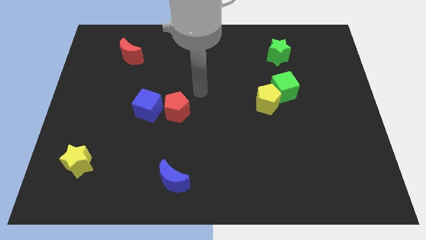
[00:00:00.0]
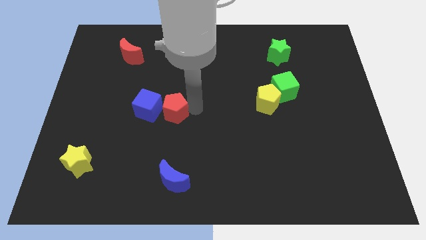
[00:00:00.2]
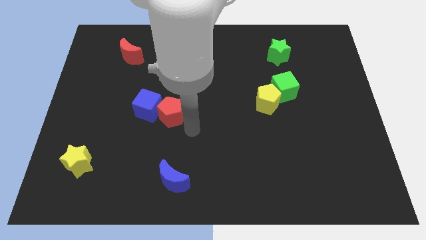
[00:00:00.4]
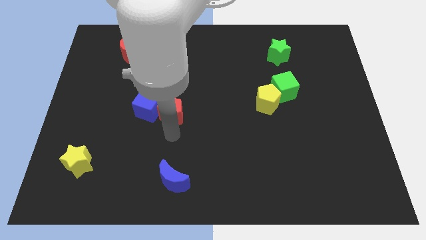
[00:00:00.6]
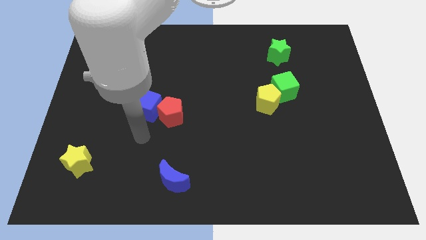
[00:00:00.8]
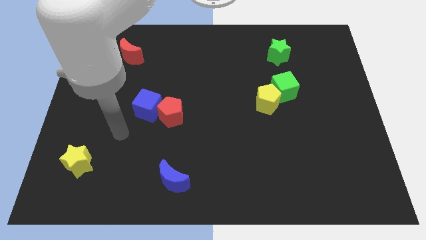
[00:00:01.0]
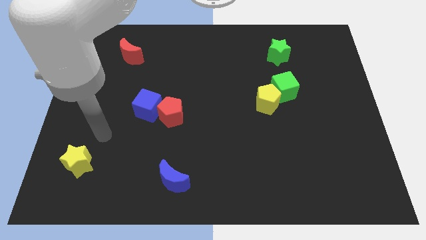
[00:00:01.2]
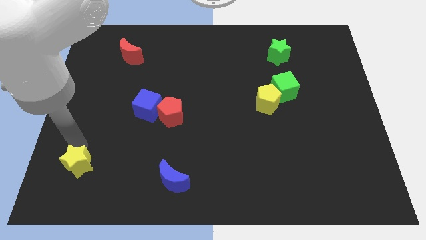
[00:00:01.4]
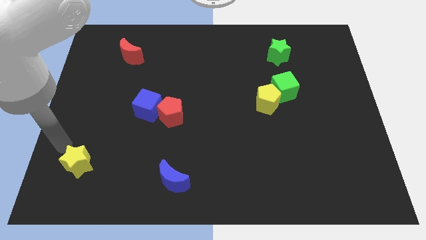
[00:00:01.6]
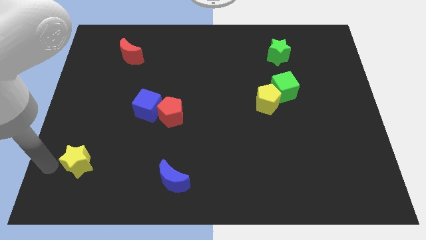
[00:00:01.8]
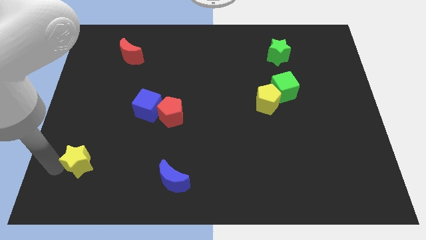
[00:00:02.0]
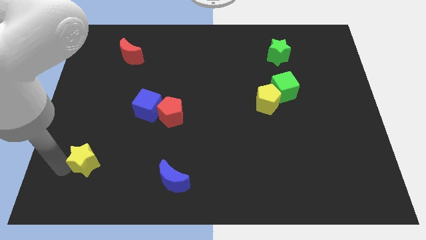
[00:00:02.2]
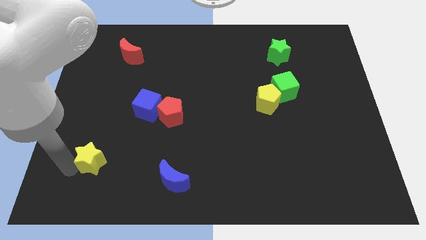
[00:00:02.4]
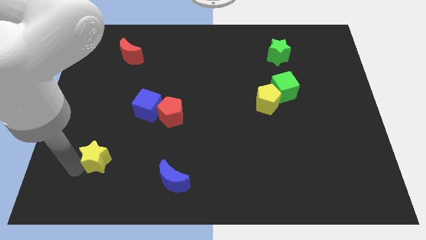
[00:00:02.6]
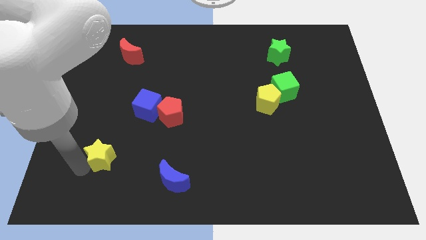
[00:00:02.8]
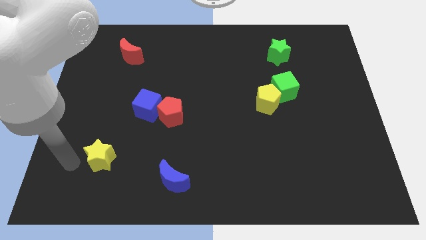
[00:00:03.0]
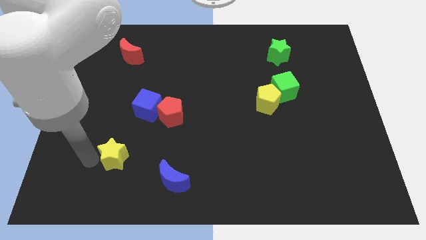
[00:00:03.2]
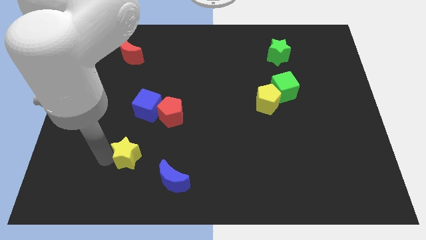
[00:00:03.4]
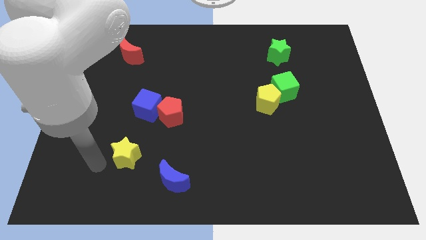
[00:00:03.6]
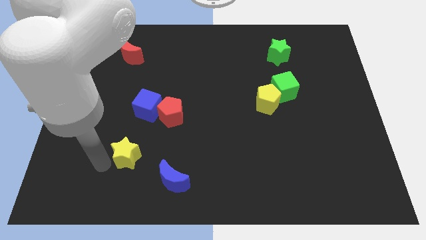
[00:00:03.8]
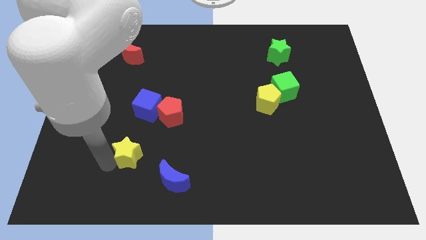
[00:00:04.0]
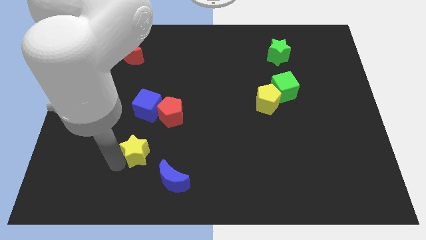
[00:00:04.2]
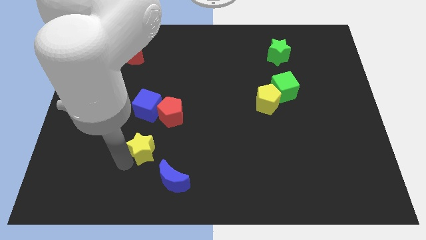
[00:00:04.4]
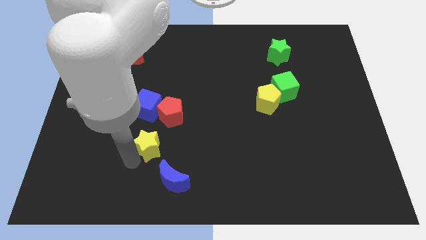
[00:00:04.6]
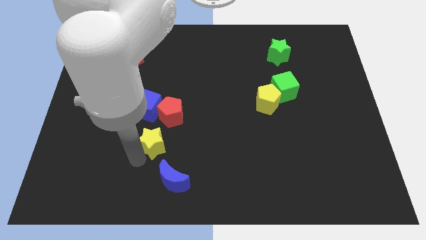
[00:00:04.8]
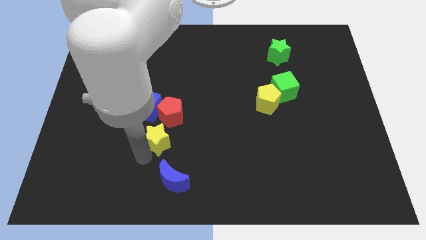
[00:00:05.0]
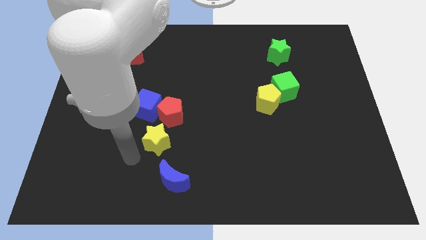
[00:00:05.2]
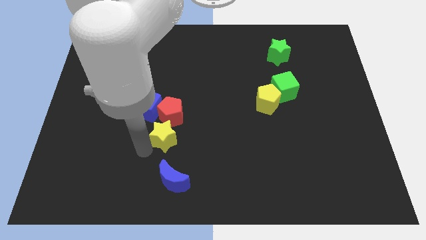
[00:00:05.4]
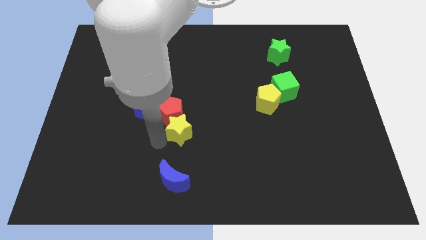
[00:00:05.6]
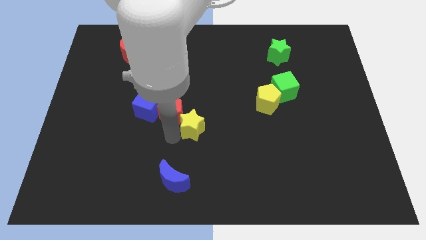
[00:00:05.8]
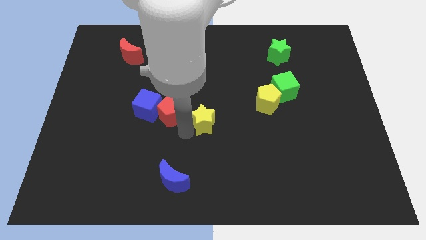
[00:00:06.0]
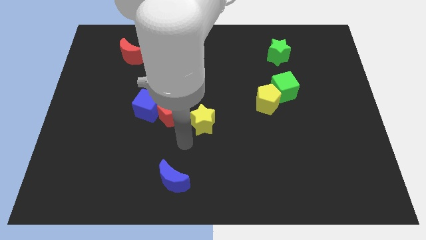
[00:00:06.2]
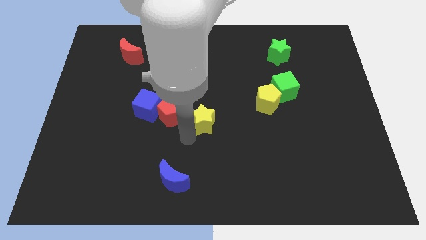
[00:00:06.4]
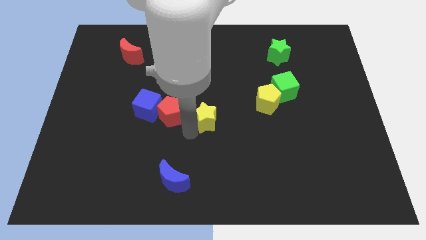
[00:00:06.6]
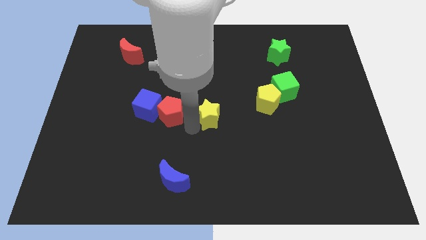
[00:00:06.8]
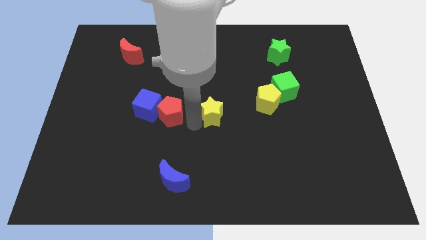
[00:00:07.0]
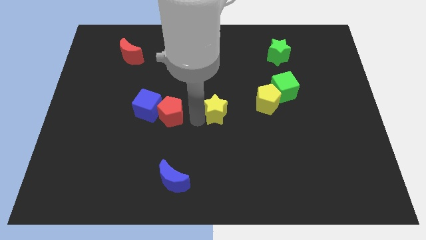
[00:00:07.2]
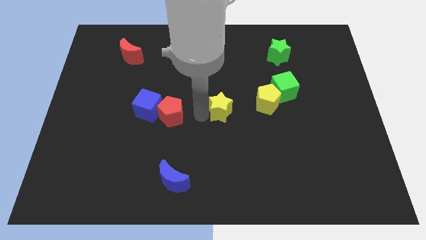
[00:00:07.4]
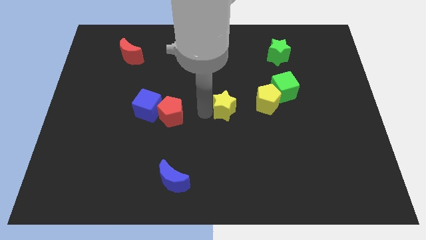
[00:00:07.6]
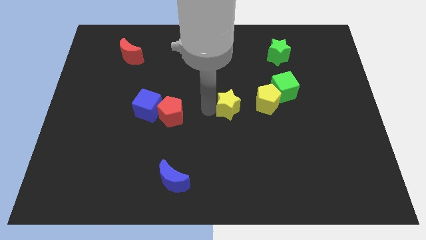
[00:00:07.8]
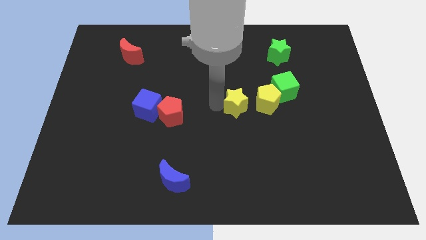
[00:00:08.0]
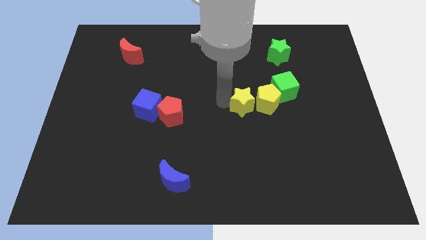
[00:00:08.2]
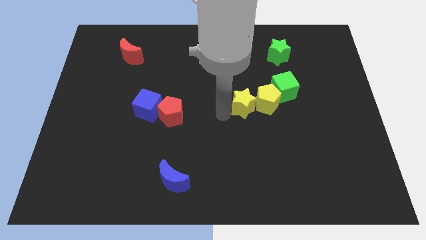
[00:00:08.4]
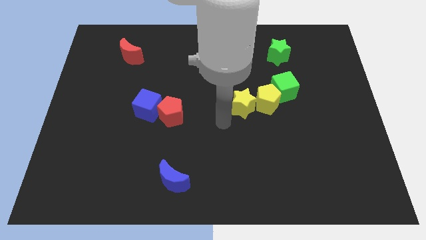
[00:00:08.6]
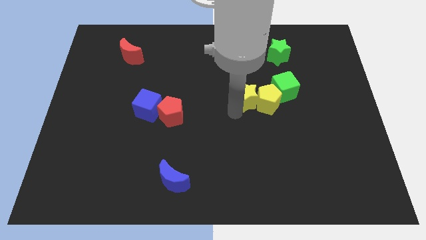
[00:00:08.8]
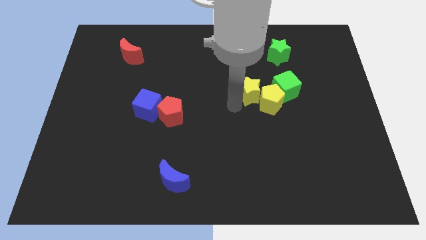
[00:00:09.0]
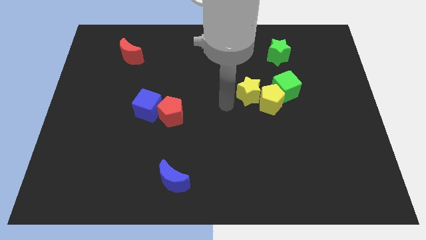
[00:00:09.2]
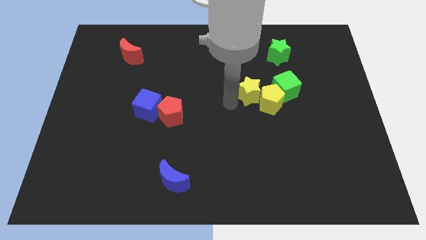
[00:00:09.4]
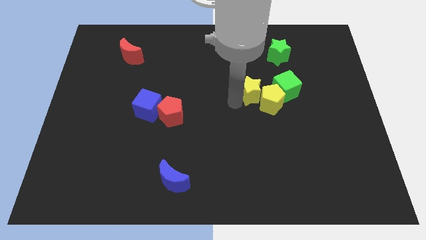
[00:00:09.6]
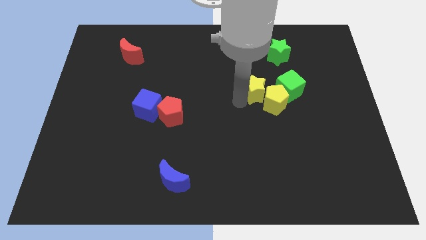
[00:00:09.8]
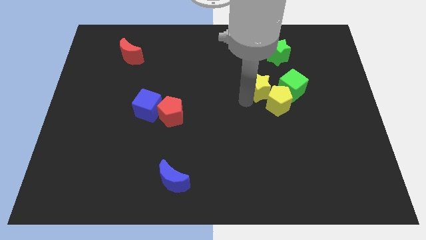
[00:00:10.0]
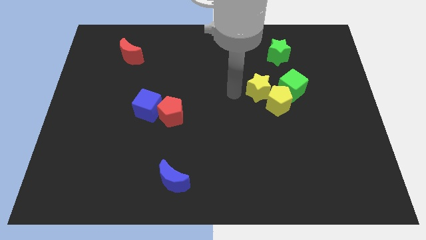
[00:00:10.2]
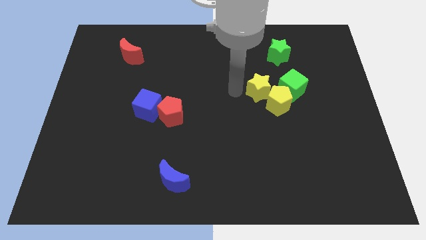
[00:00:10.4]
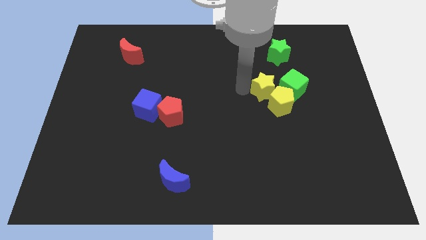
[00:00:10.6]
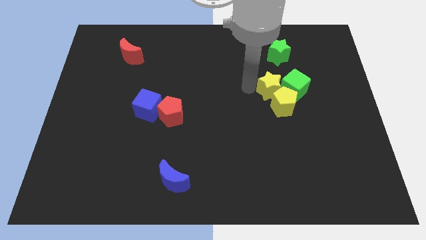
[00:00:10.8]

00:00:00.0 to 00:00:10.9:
put the yellow star to the green cube

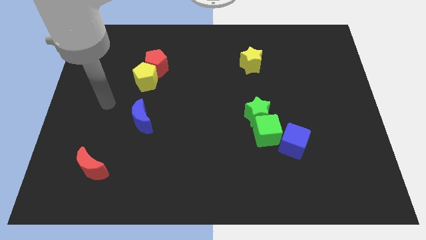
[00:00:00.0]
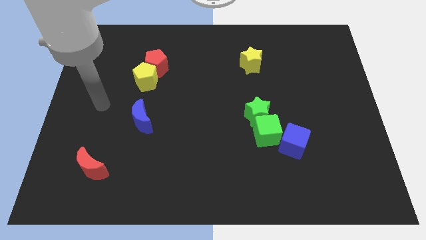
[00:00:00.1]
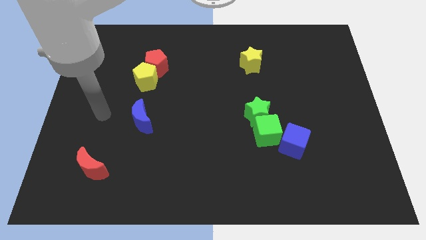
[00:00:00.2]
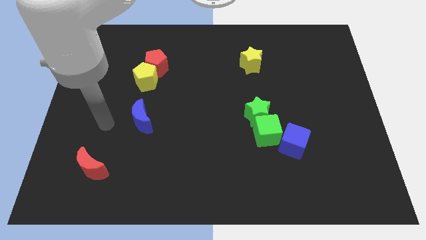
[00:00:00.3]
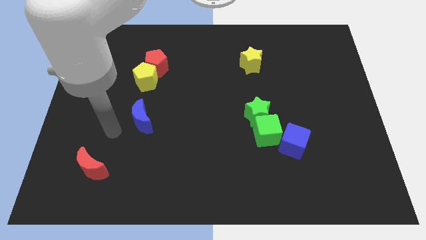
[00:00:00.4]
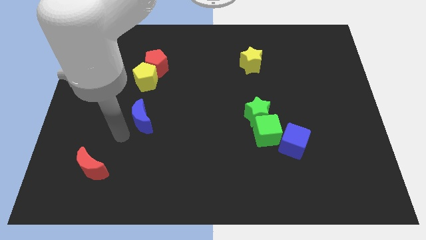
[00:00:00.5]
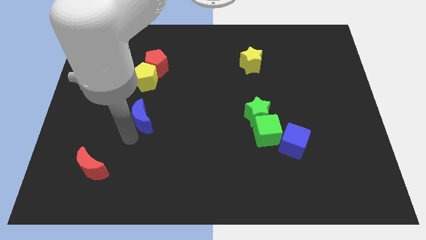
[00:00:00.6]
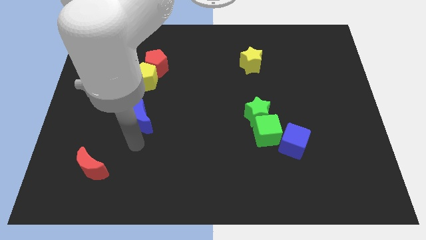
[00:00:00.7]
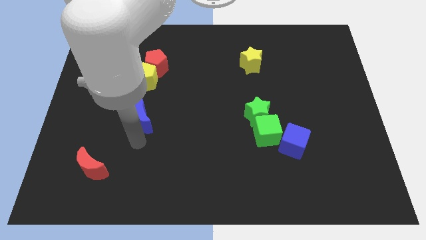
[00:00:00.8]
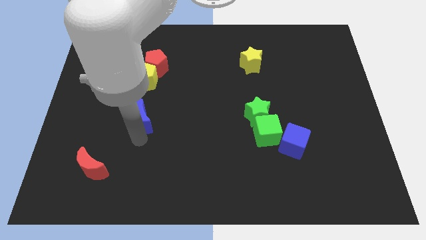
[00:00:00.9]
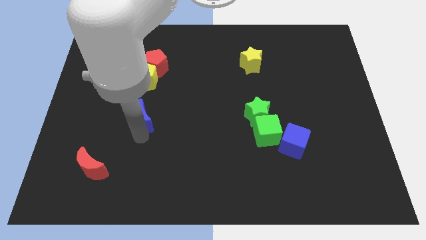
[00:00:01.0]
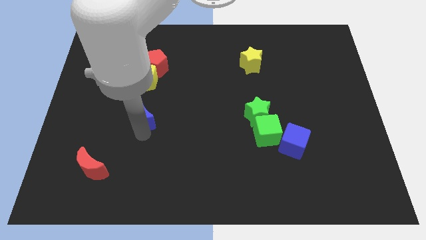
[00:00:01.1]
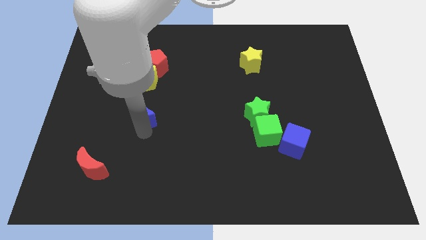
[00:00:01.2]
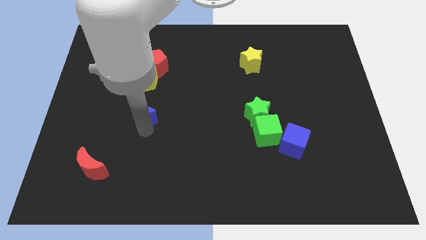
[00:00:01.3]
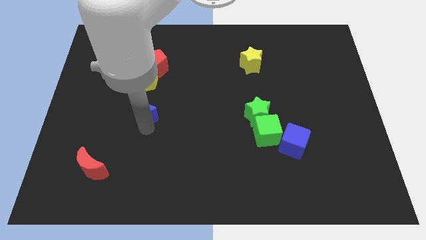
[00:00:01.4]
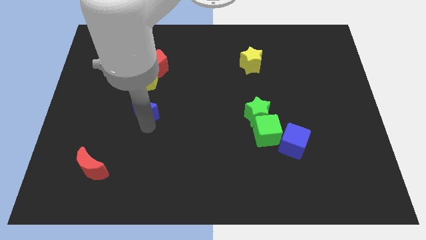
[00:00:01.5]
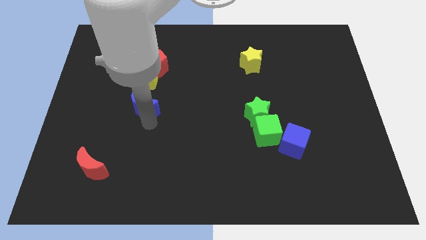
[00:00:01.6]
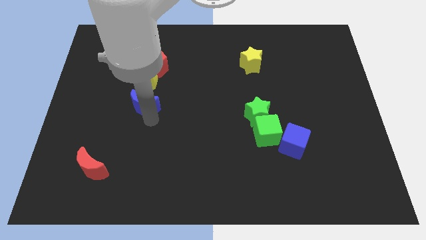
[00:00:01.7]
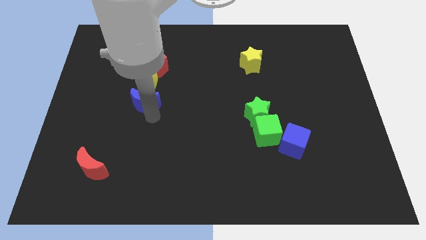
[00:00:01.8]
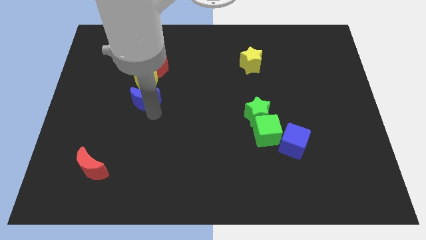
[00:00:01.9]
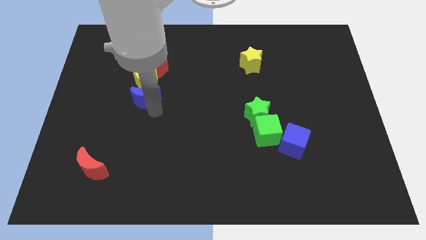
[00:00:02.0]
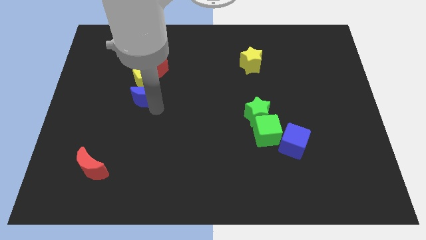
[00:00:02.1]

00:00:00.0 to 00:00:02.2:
put the blue moon next to the yellow pentagon

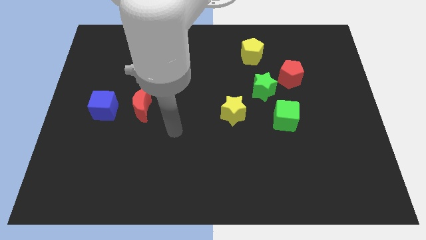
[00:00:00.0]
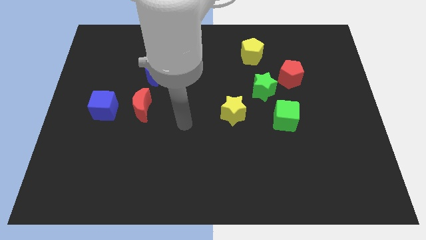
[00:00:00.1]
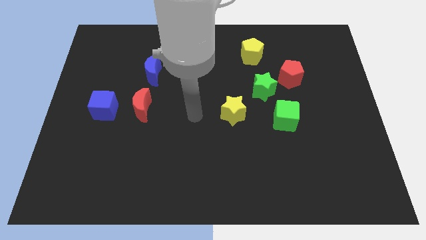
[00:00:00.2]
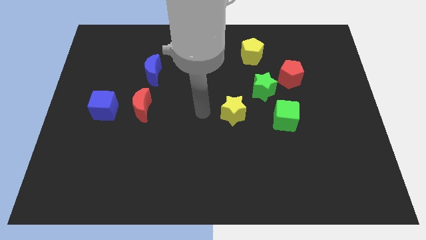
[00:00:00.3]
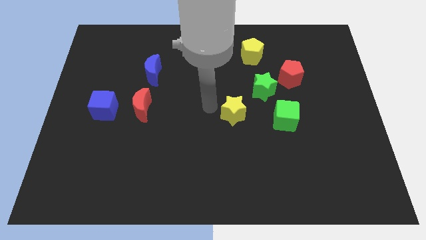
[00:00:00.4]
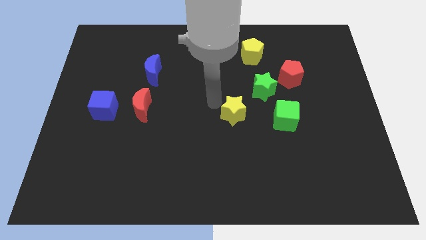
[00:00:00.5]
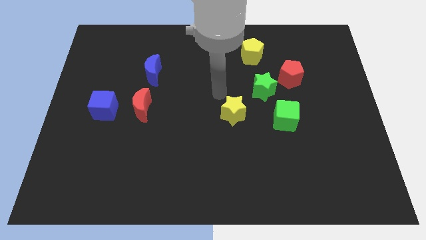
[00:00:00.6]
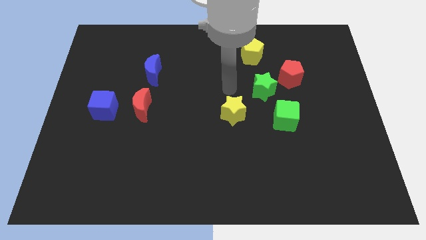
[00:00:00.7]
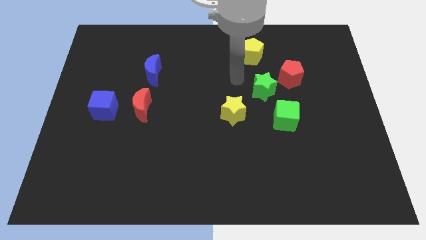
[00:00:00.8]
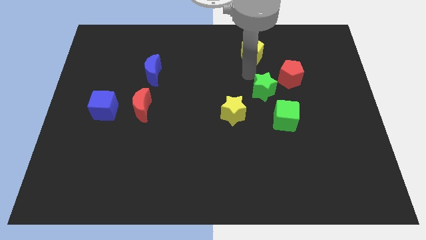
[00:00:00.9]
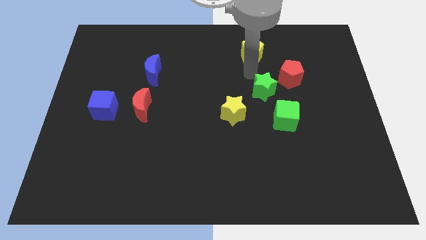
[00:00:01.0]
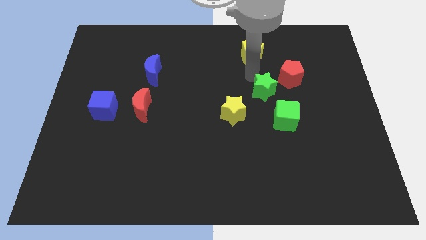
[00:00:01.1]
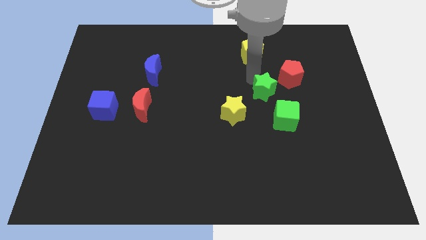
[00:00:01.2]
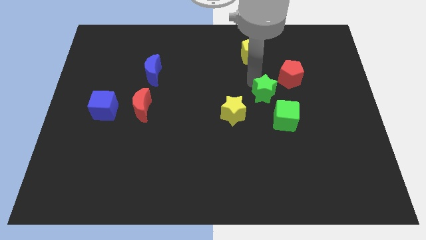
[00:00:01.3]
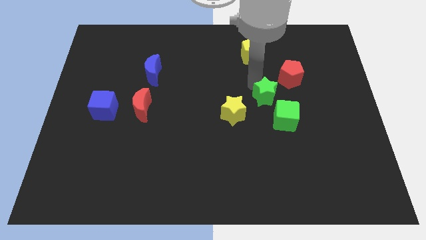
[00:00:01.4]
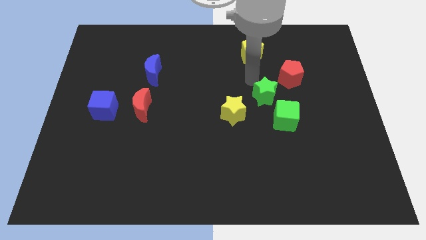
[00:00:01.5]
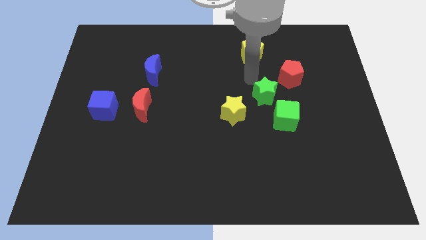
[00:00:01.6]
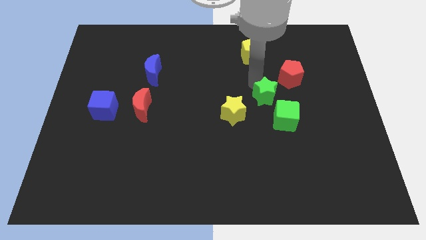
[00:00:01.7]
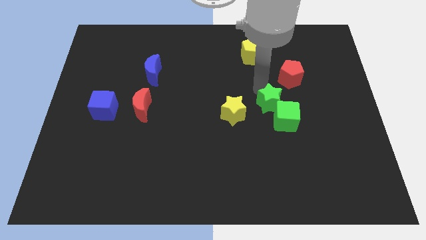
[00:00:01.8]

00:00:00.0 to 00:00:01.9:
slide the green star next to the green cube
